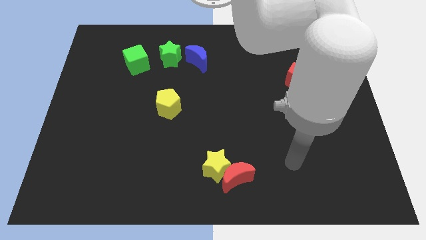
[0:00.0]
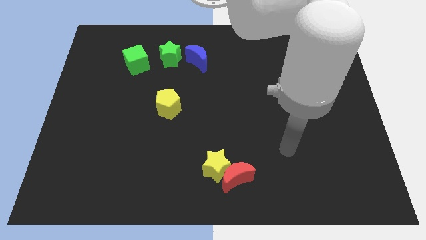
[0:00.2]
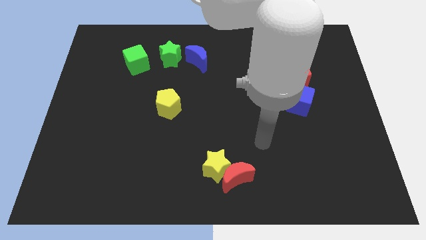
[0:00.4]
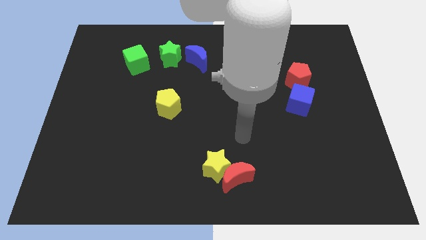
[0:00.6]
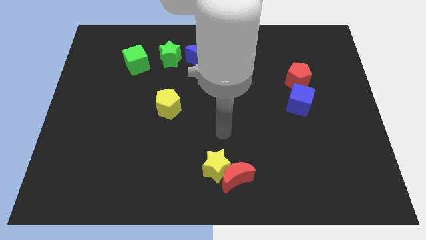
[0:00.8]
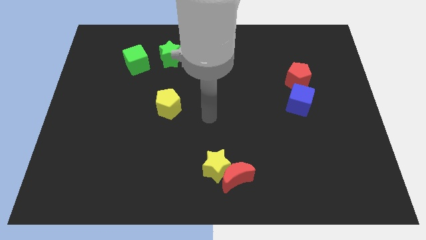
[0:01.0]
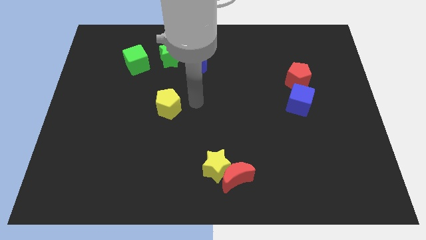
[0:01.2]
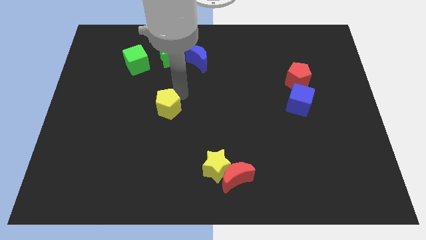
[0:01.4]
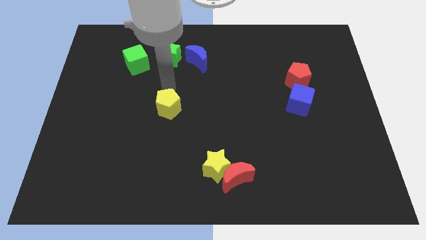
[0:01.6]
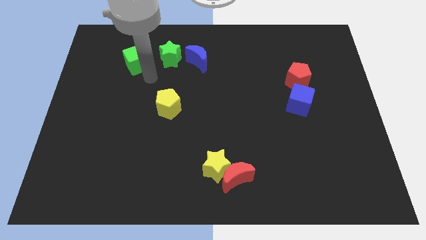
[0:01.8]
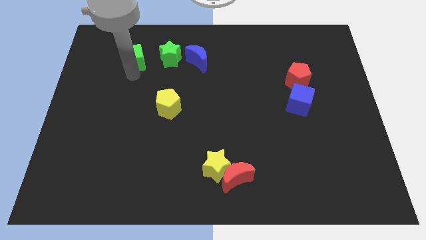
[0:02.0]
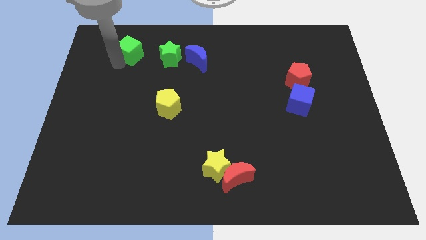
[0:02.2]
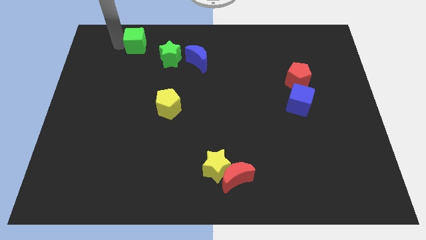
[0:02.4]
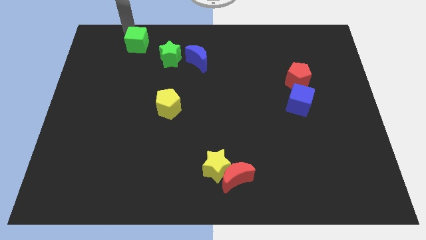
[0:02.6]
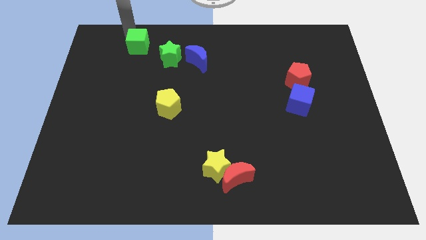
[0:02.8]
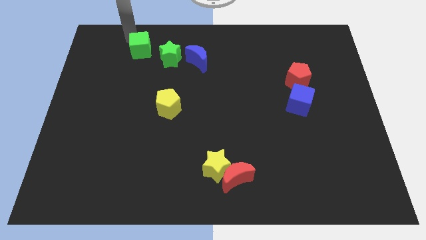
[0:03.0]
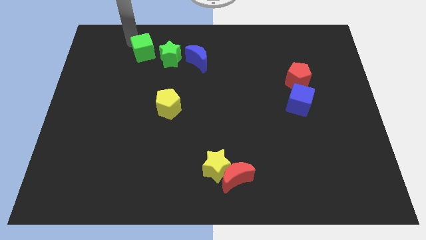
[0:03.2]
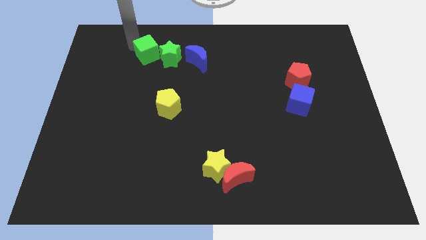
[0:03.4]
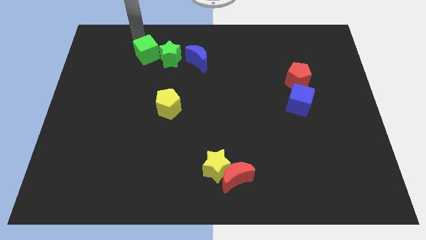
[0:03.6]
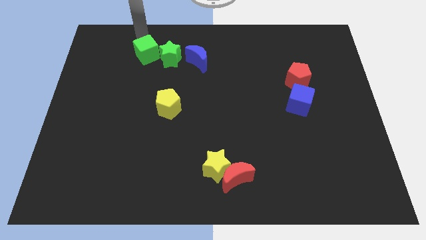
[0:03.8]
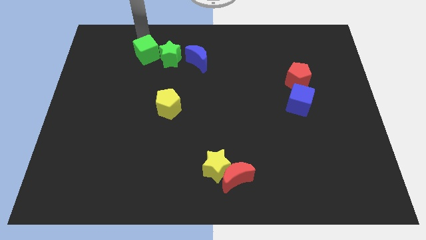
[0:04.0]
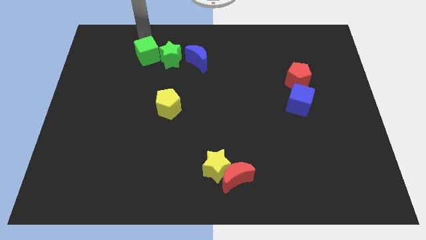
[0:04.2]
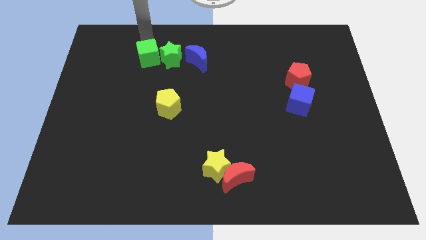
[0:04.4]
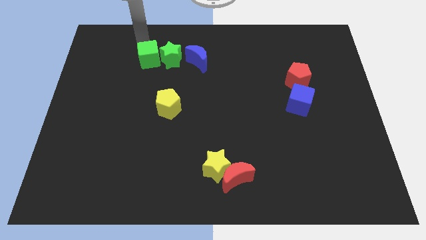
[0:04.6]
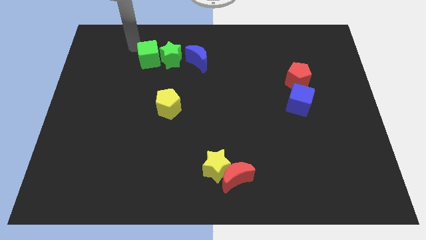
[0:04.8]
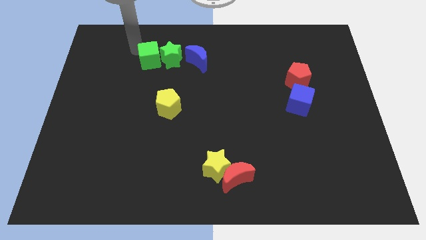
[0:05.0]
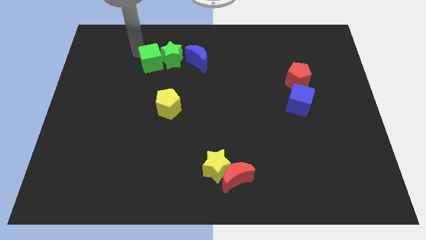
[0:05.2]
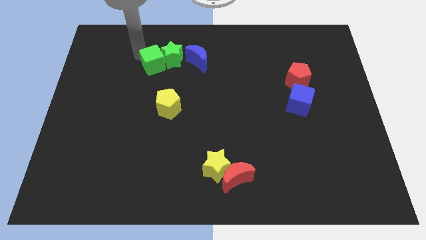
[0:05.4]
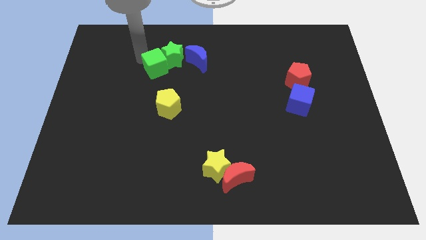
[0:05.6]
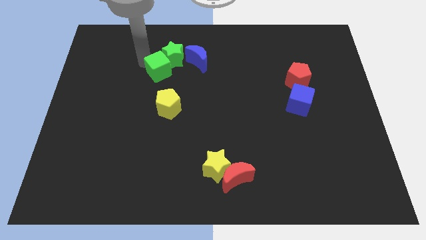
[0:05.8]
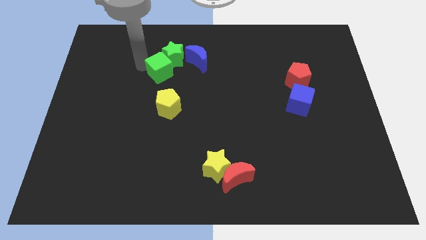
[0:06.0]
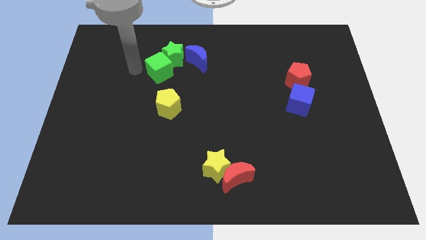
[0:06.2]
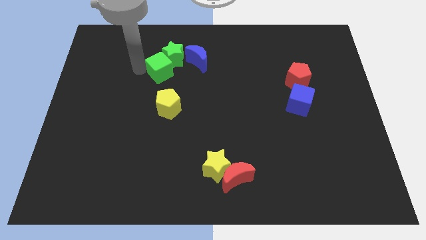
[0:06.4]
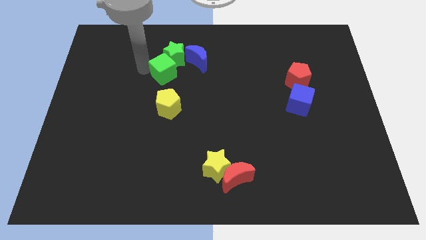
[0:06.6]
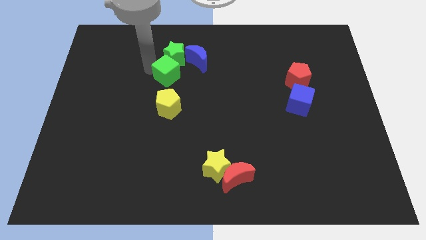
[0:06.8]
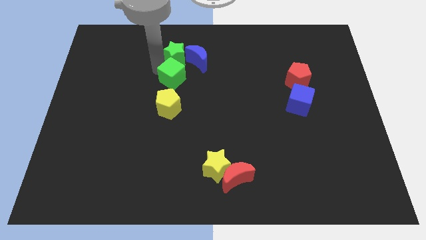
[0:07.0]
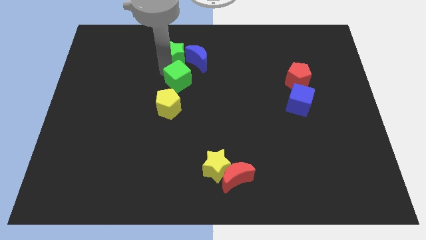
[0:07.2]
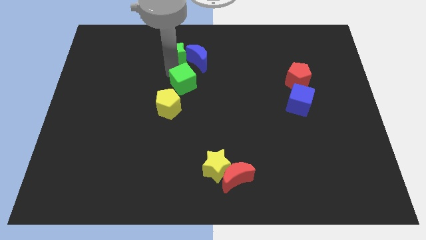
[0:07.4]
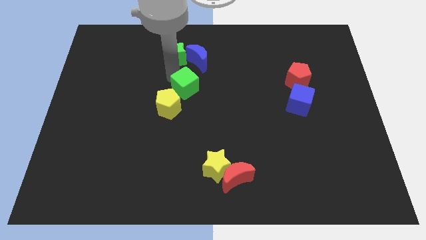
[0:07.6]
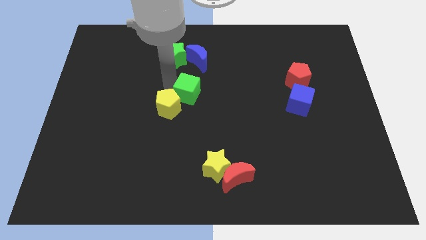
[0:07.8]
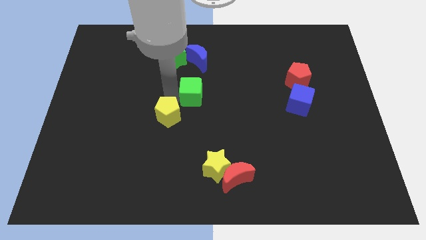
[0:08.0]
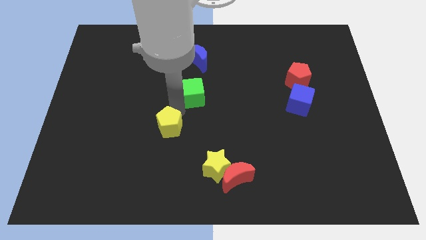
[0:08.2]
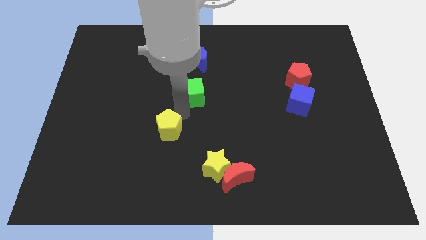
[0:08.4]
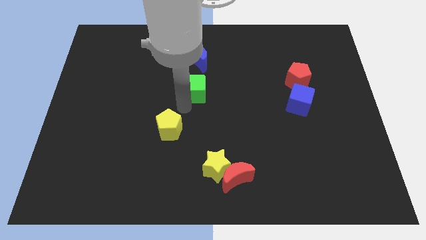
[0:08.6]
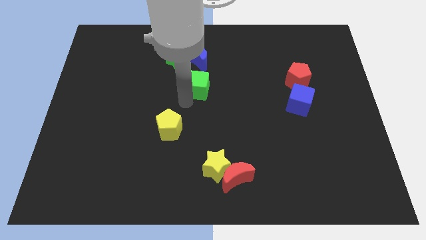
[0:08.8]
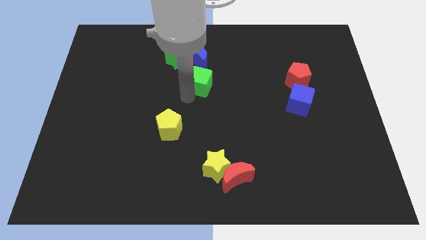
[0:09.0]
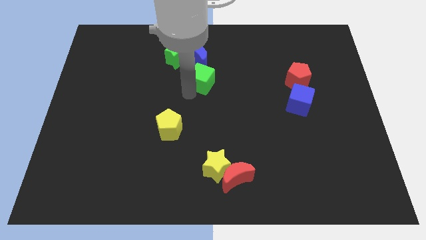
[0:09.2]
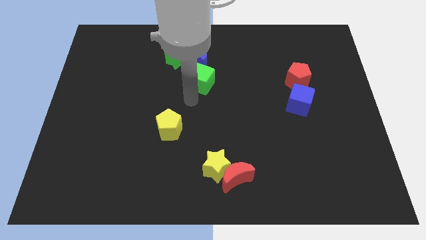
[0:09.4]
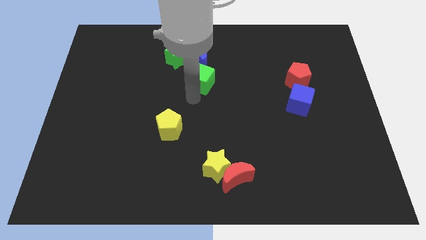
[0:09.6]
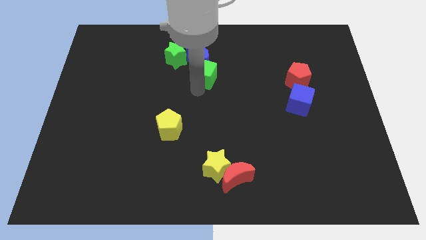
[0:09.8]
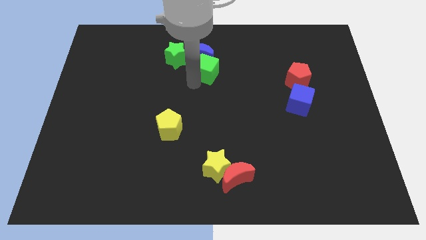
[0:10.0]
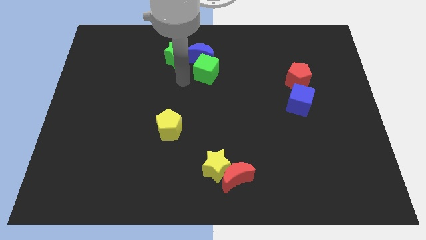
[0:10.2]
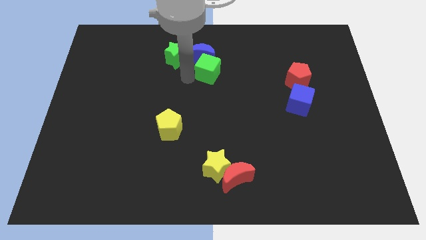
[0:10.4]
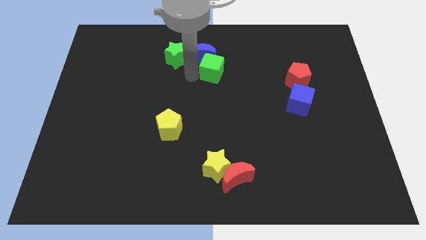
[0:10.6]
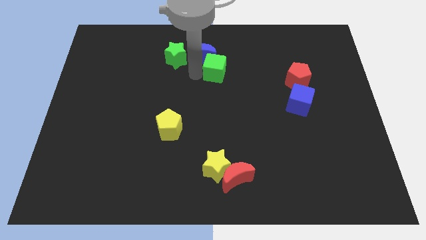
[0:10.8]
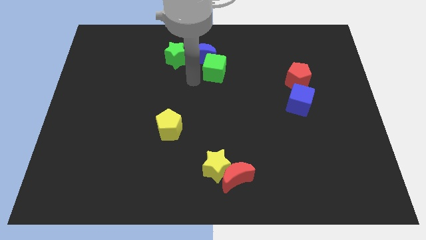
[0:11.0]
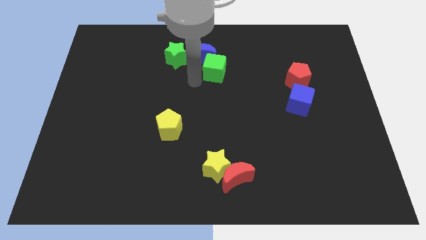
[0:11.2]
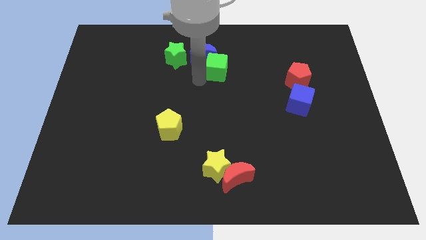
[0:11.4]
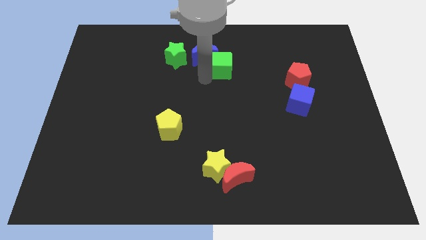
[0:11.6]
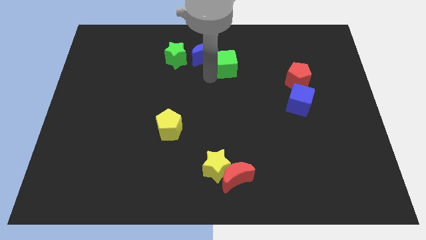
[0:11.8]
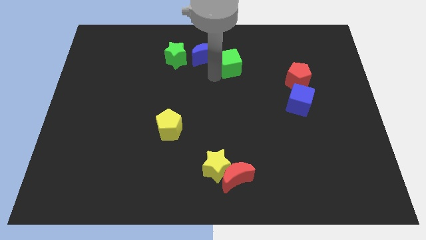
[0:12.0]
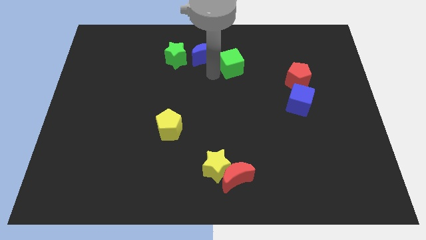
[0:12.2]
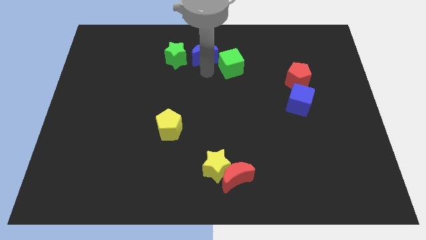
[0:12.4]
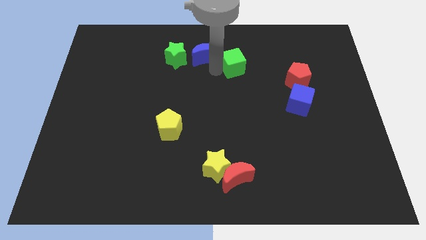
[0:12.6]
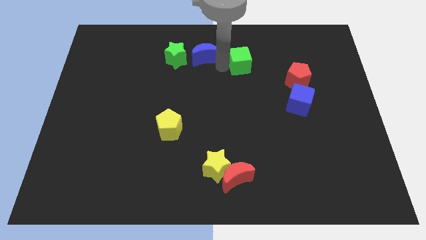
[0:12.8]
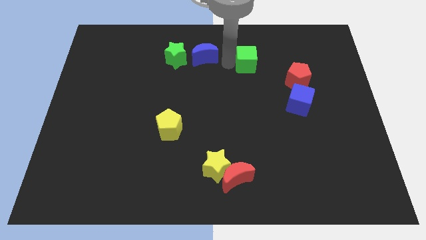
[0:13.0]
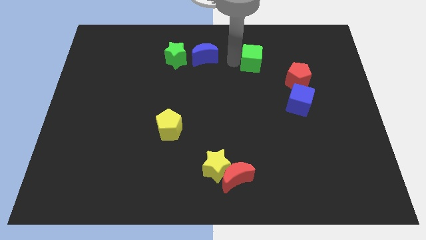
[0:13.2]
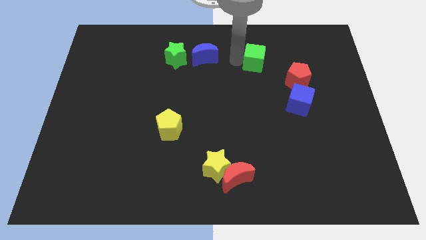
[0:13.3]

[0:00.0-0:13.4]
move the green cube to the top left side of the red pentagon

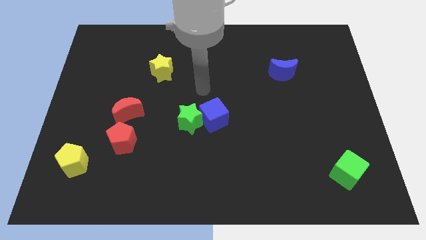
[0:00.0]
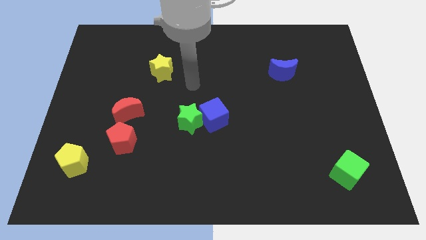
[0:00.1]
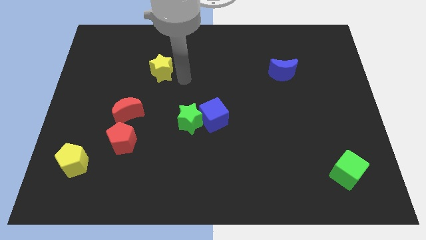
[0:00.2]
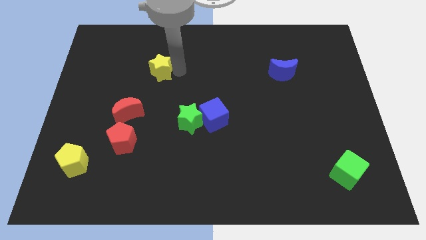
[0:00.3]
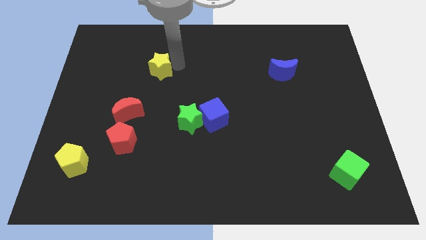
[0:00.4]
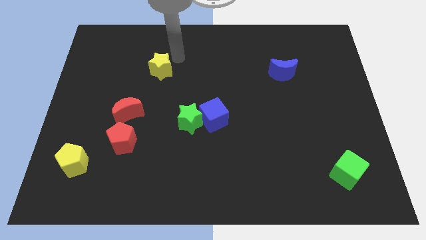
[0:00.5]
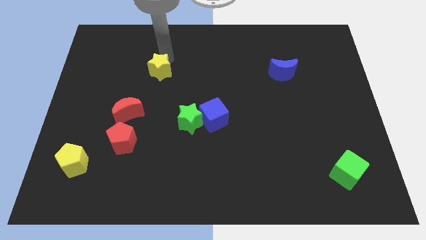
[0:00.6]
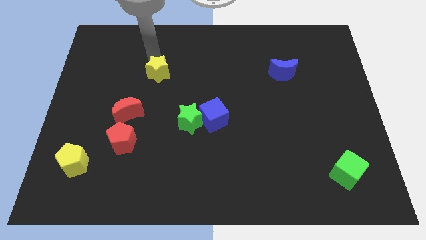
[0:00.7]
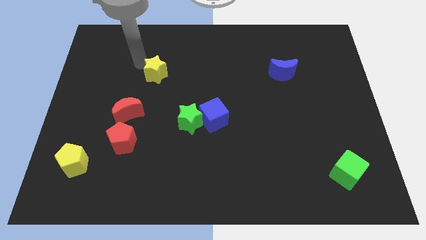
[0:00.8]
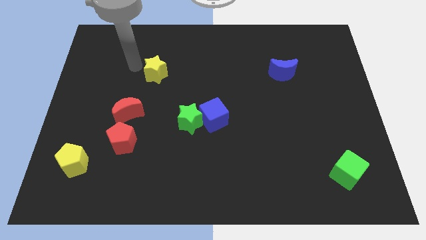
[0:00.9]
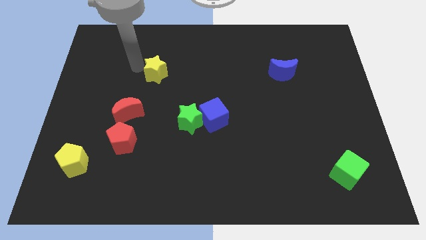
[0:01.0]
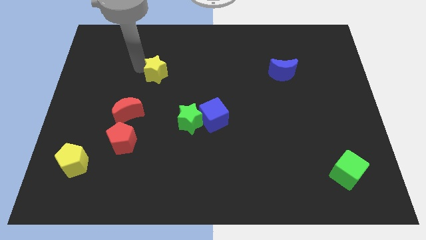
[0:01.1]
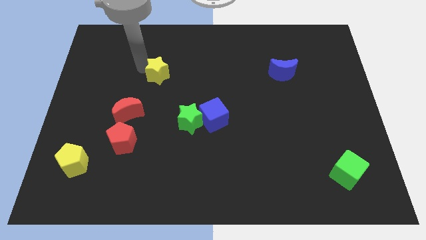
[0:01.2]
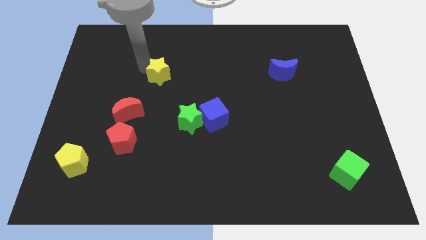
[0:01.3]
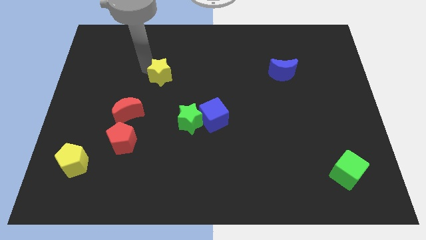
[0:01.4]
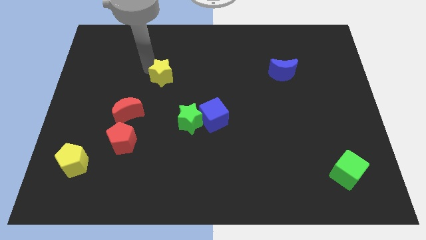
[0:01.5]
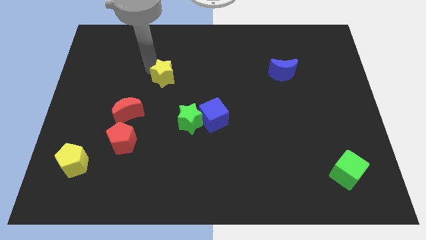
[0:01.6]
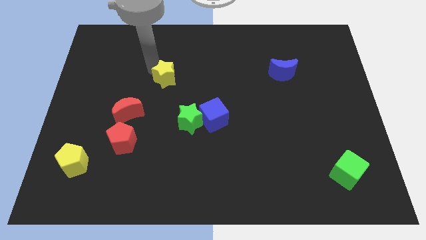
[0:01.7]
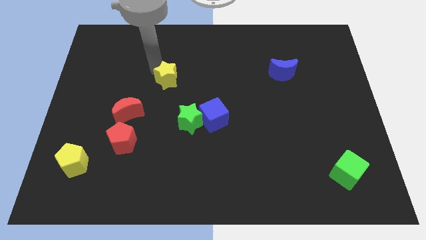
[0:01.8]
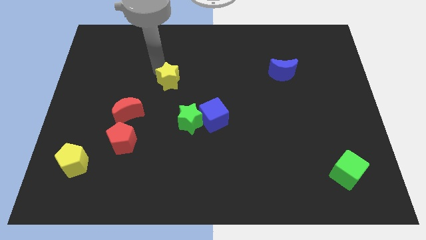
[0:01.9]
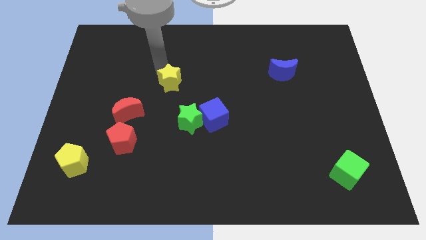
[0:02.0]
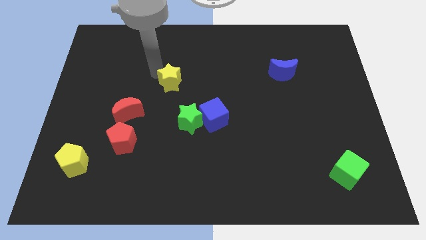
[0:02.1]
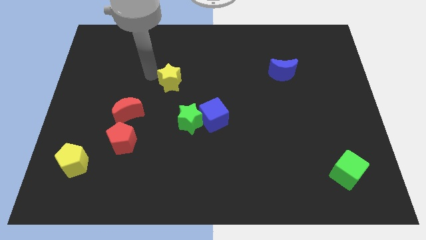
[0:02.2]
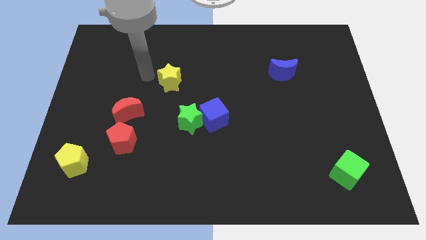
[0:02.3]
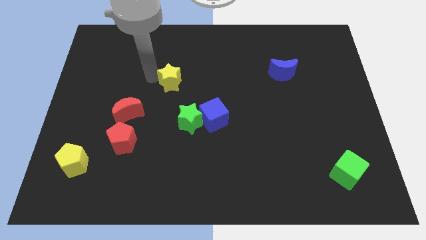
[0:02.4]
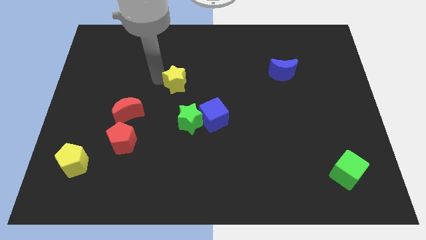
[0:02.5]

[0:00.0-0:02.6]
put the yellow star to the top of the green star
